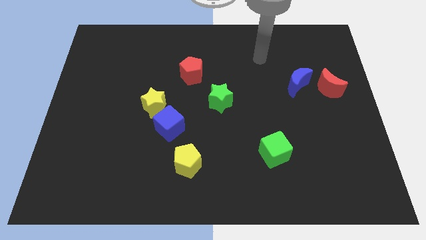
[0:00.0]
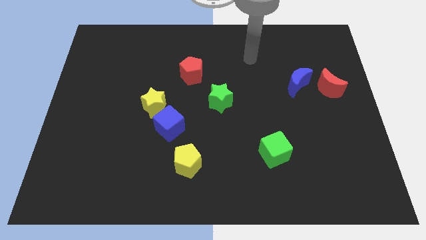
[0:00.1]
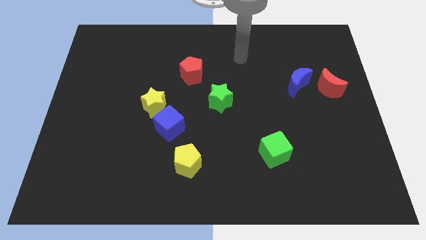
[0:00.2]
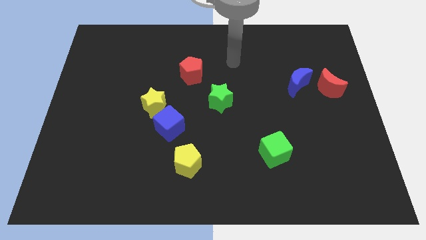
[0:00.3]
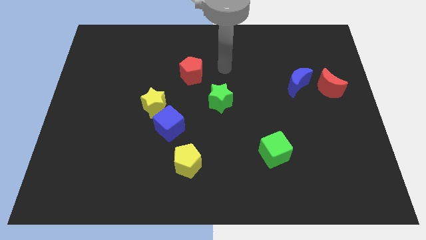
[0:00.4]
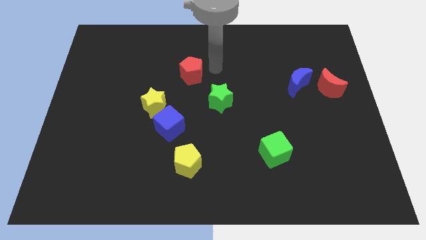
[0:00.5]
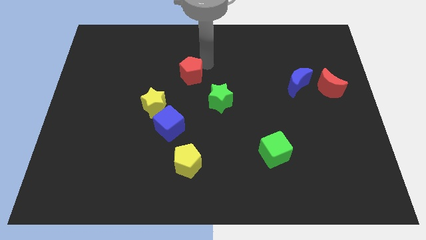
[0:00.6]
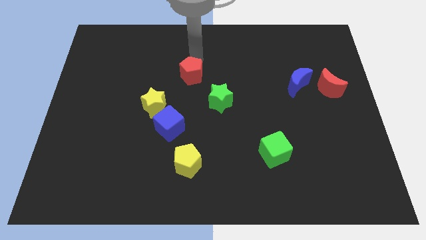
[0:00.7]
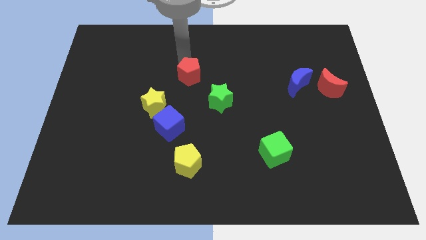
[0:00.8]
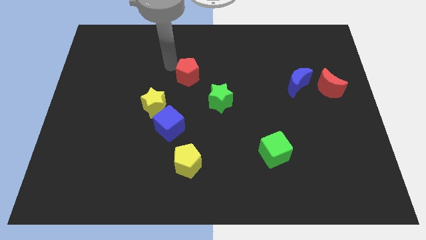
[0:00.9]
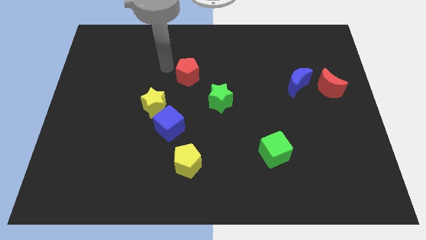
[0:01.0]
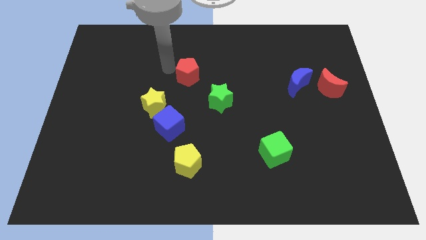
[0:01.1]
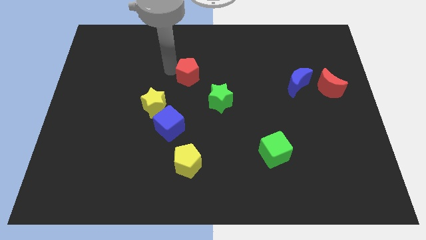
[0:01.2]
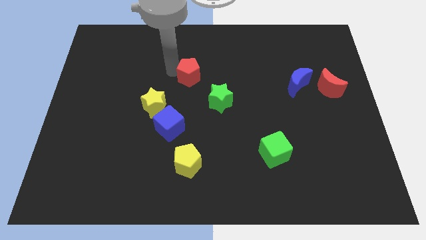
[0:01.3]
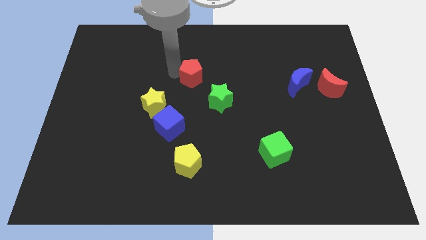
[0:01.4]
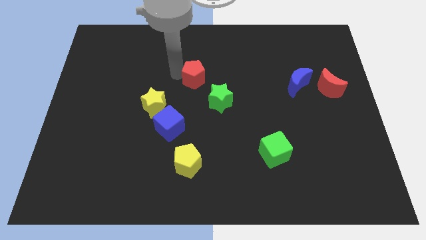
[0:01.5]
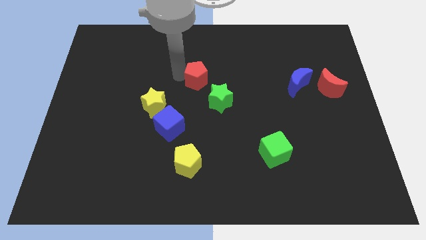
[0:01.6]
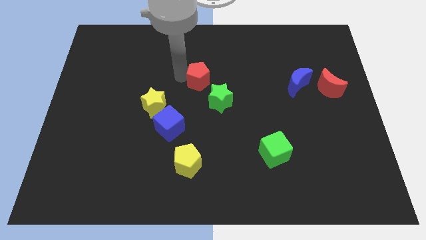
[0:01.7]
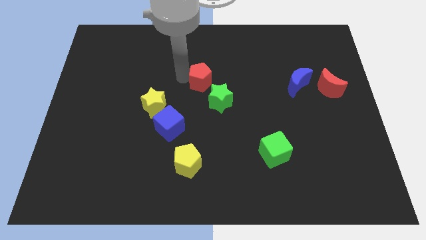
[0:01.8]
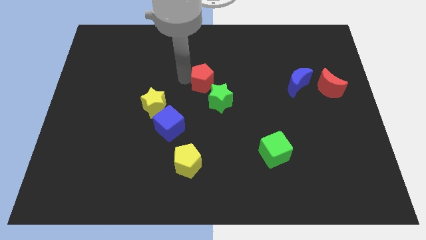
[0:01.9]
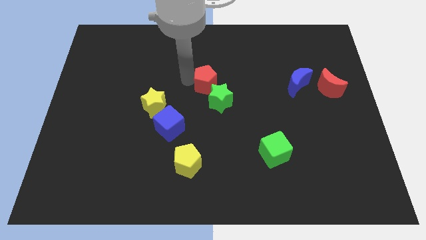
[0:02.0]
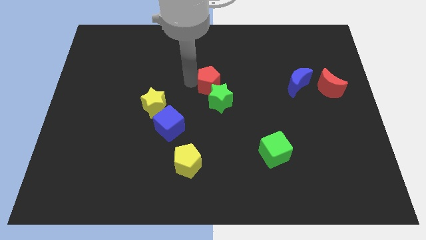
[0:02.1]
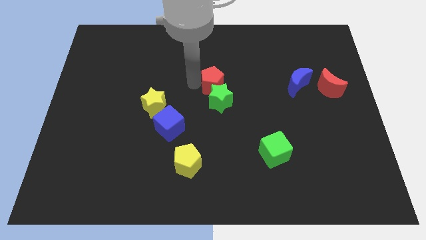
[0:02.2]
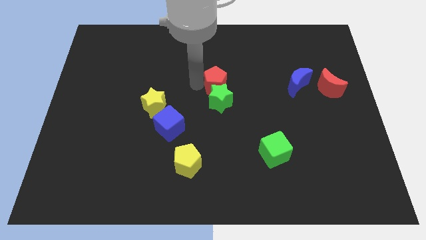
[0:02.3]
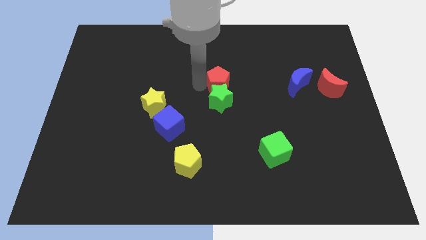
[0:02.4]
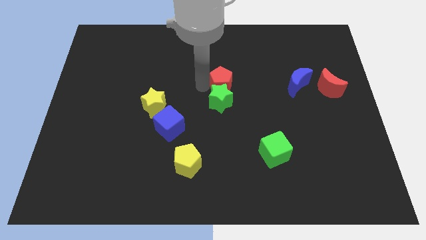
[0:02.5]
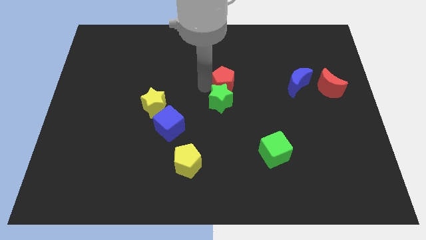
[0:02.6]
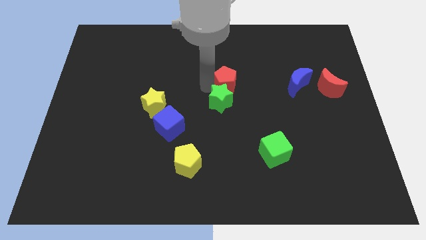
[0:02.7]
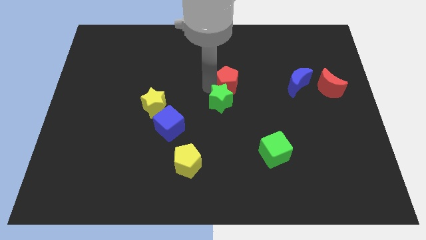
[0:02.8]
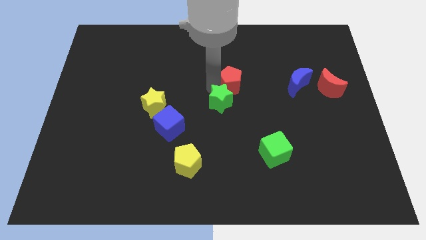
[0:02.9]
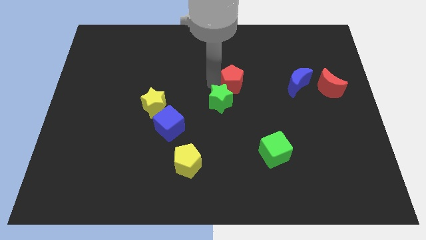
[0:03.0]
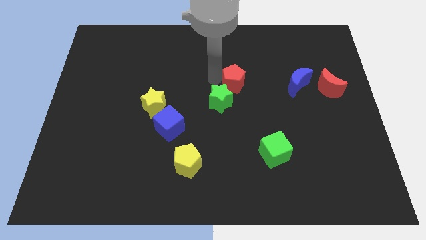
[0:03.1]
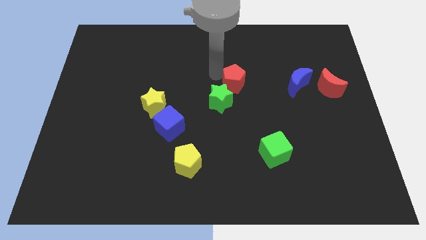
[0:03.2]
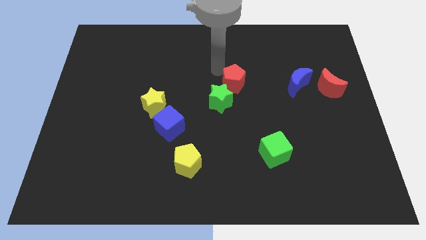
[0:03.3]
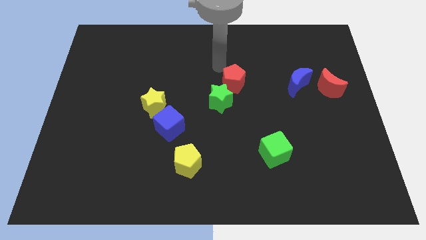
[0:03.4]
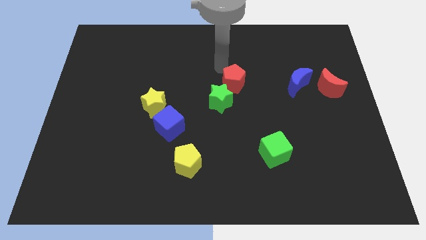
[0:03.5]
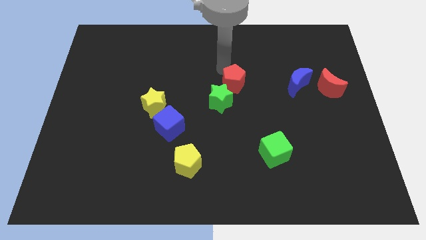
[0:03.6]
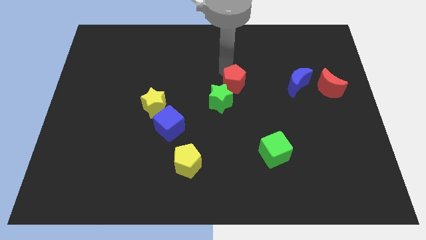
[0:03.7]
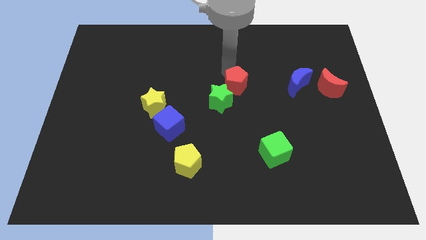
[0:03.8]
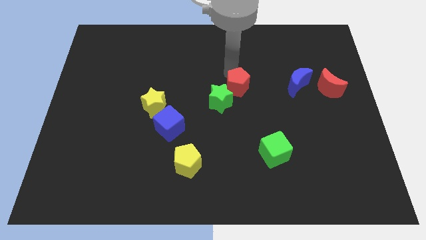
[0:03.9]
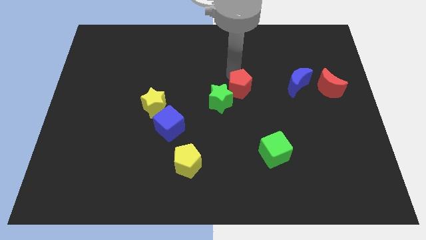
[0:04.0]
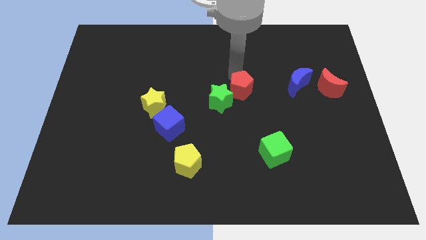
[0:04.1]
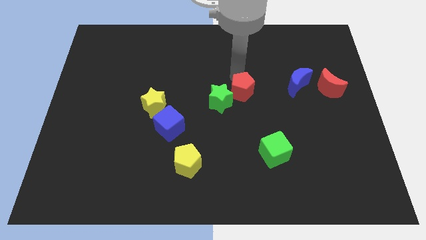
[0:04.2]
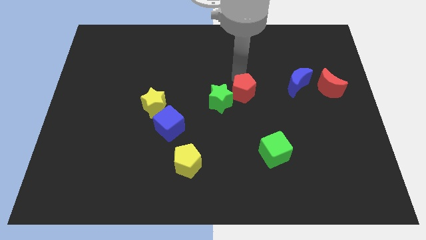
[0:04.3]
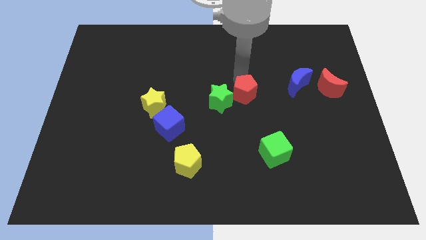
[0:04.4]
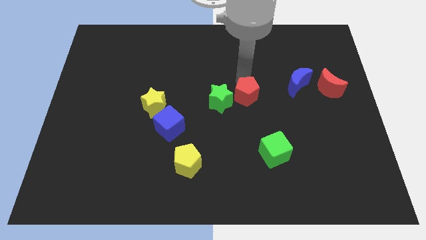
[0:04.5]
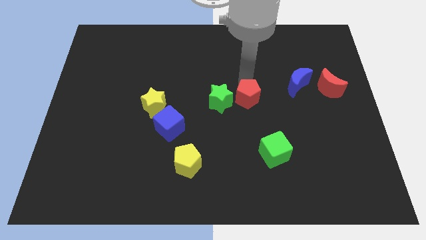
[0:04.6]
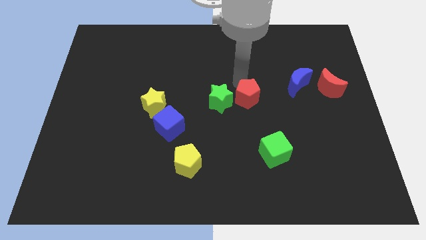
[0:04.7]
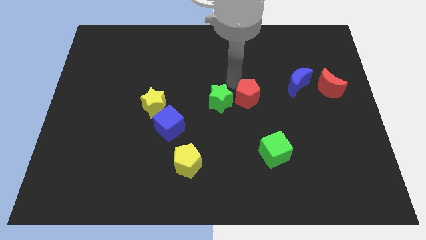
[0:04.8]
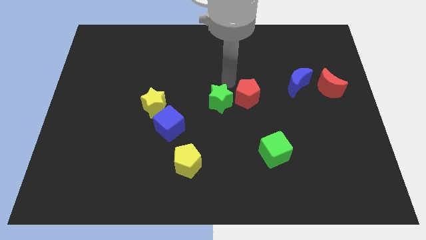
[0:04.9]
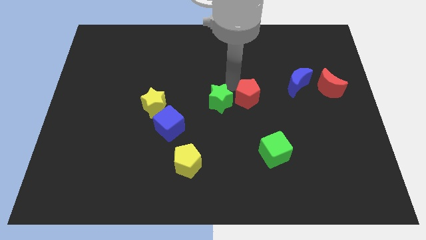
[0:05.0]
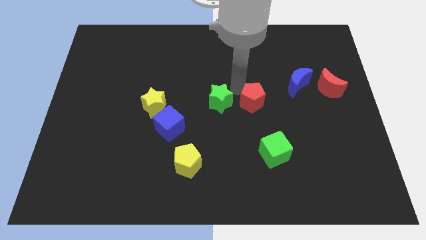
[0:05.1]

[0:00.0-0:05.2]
push the red pentagon to the top of the green cube

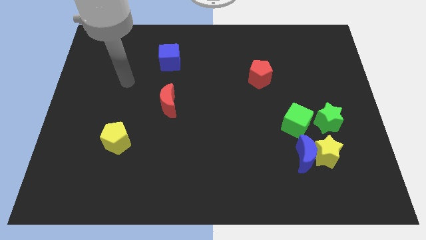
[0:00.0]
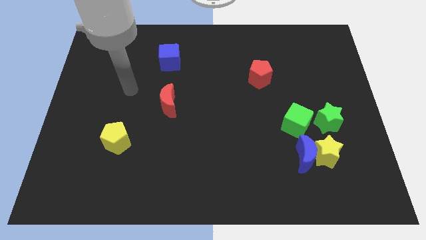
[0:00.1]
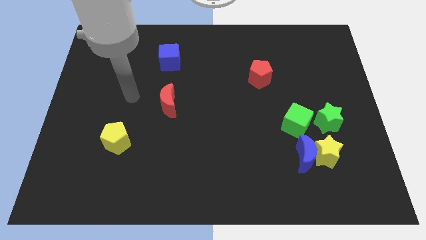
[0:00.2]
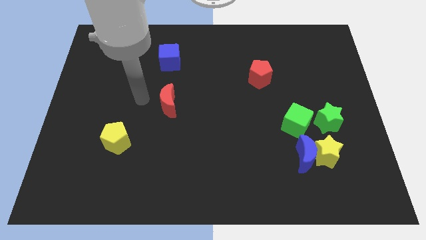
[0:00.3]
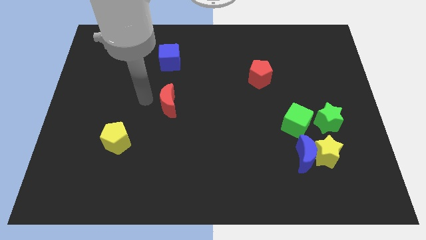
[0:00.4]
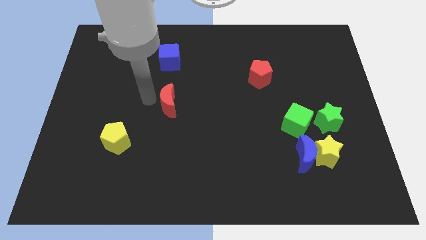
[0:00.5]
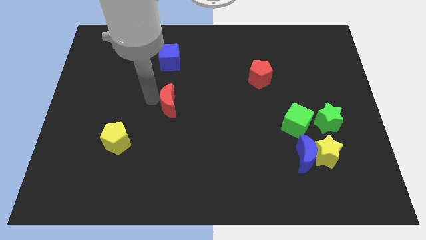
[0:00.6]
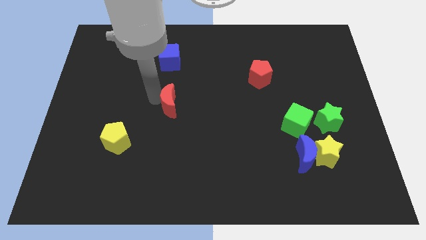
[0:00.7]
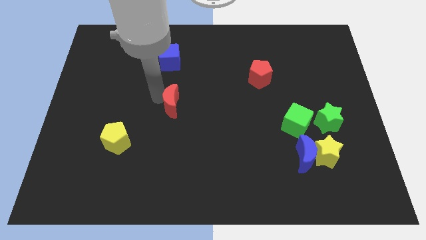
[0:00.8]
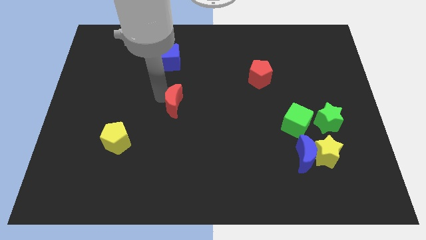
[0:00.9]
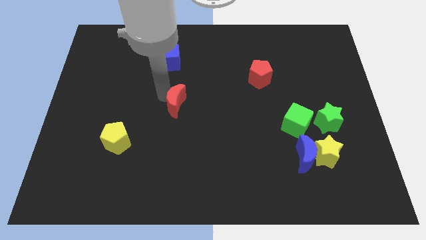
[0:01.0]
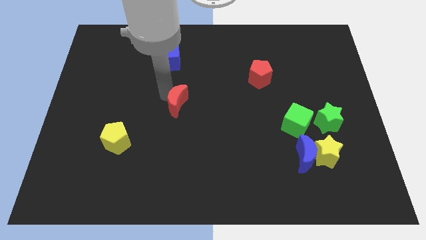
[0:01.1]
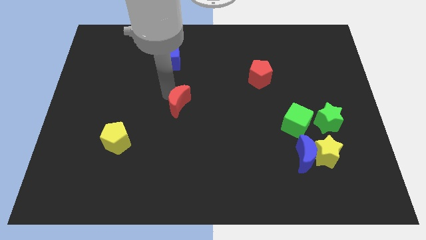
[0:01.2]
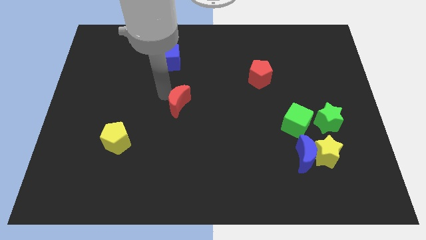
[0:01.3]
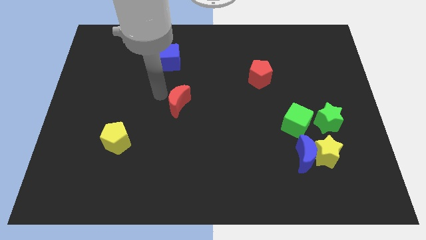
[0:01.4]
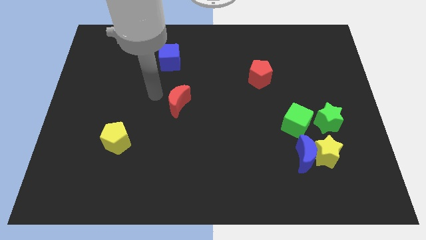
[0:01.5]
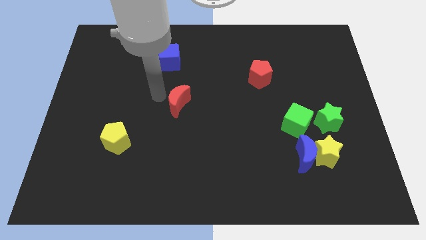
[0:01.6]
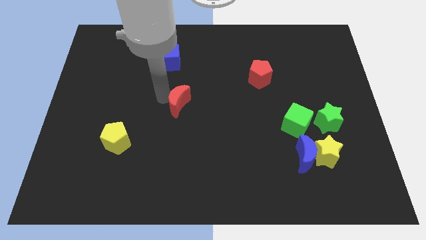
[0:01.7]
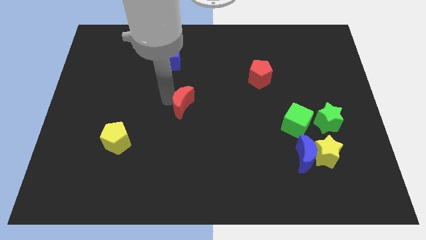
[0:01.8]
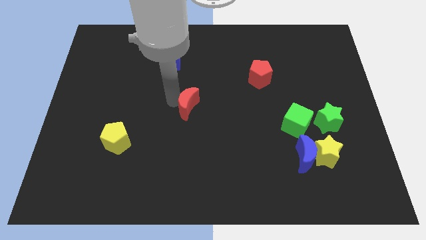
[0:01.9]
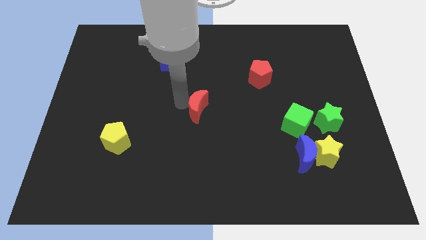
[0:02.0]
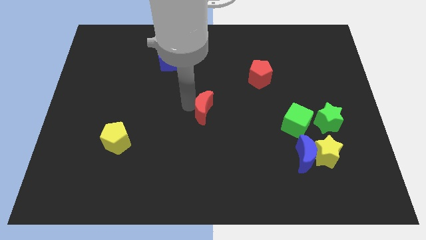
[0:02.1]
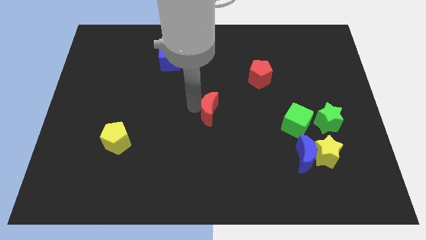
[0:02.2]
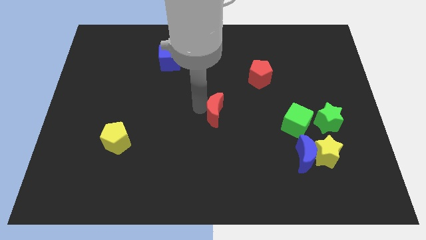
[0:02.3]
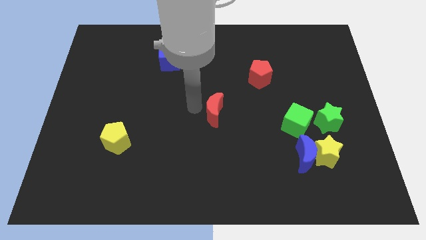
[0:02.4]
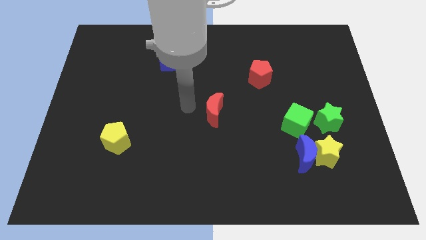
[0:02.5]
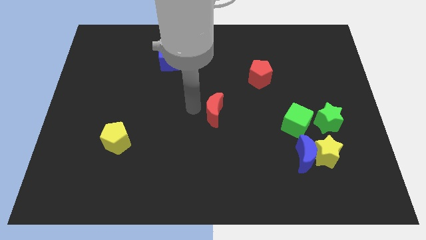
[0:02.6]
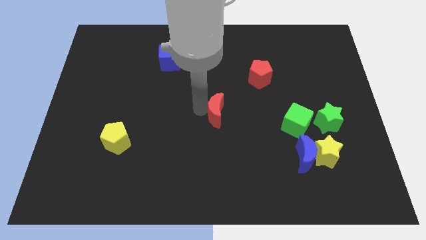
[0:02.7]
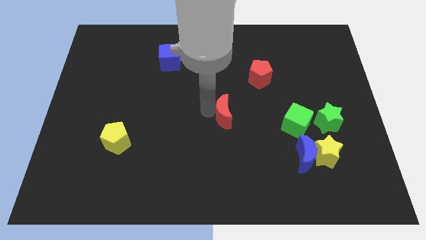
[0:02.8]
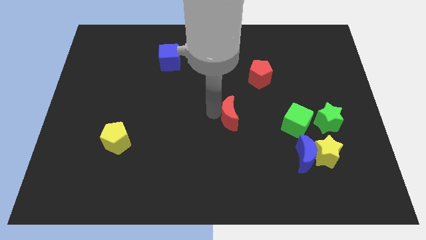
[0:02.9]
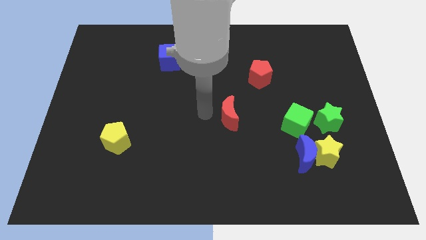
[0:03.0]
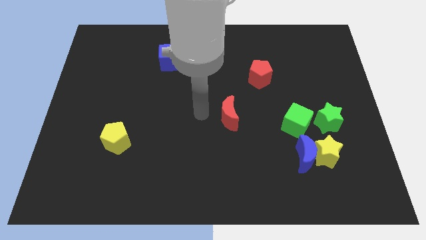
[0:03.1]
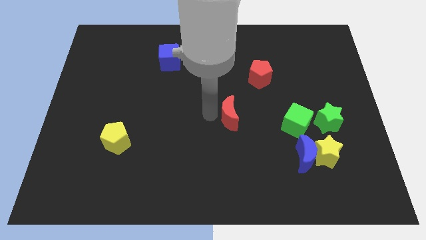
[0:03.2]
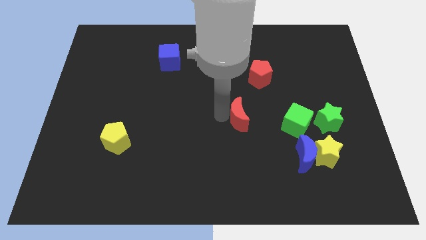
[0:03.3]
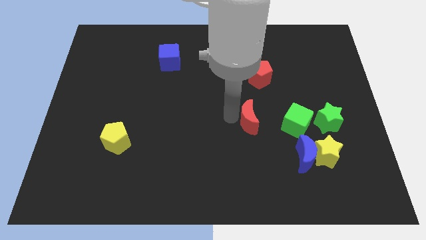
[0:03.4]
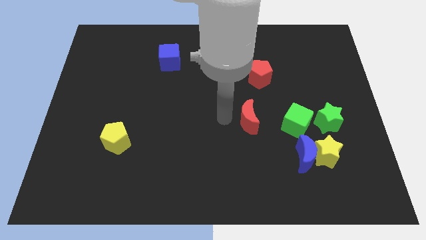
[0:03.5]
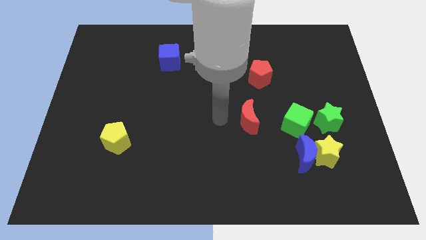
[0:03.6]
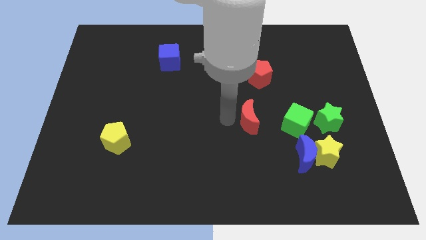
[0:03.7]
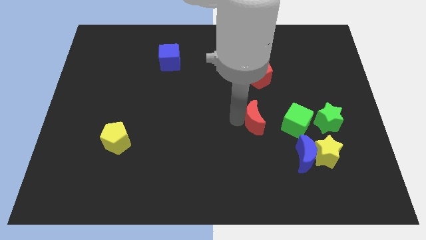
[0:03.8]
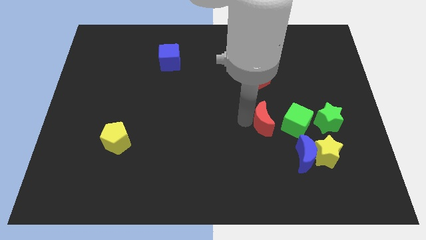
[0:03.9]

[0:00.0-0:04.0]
slide the red moon to the left of the green star
